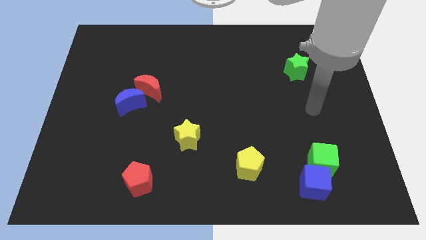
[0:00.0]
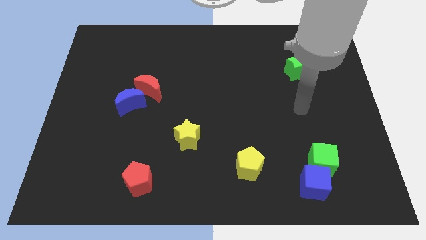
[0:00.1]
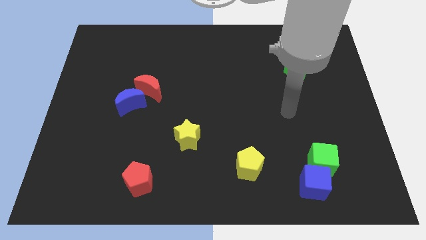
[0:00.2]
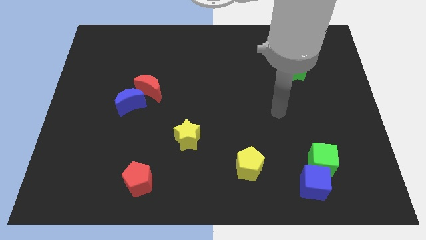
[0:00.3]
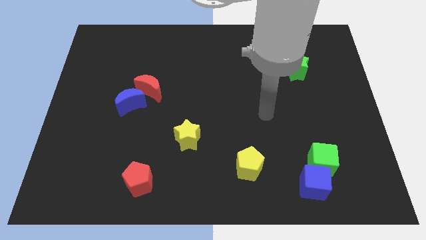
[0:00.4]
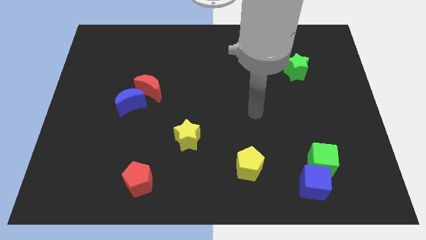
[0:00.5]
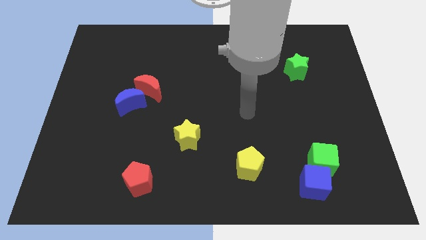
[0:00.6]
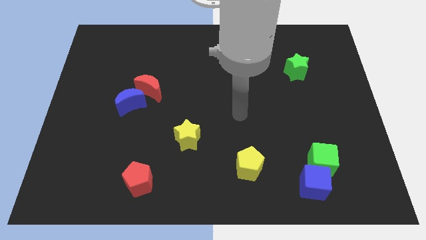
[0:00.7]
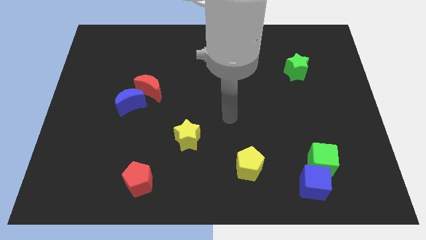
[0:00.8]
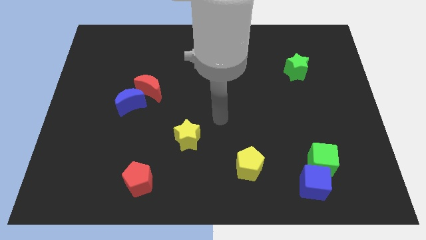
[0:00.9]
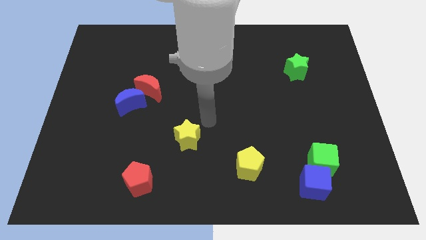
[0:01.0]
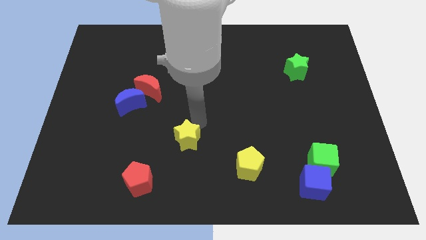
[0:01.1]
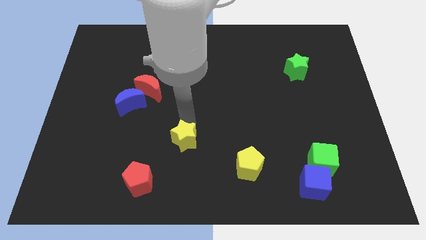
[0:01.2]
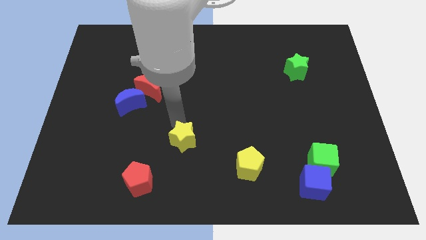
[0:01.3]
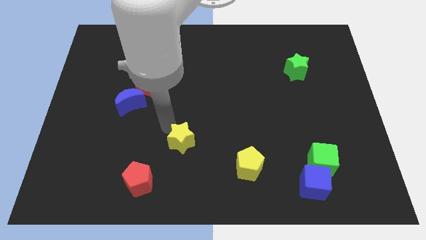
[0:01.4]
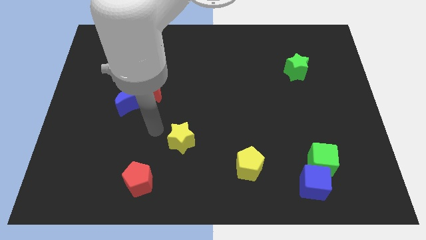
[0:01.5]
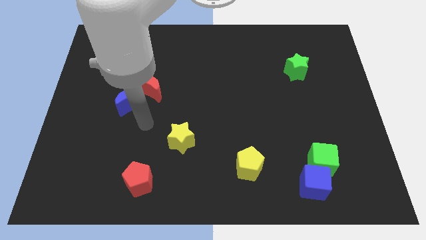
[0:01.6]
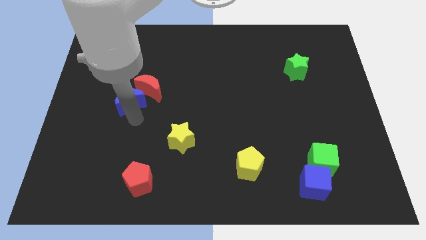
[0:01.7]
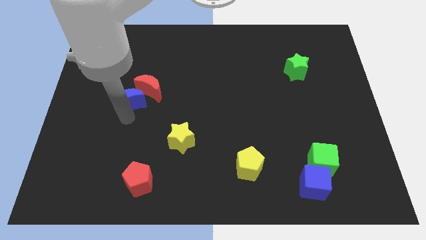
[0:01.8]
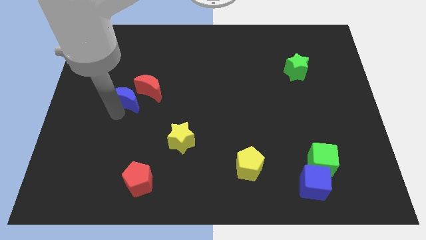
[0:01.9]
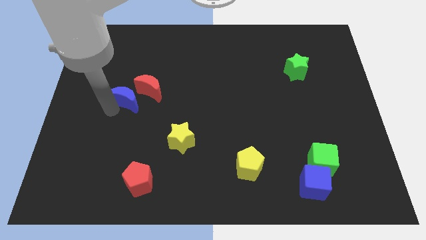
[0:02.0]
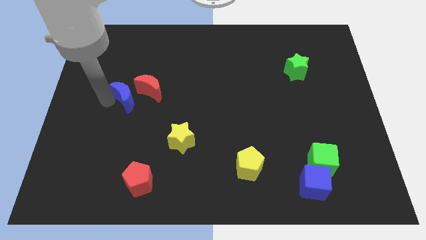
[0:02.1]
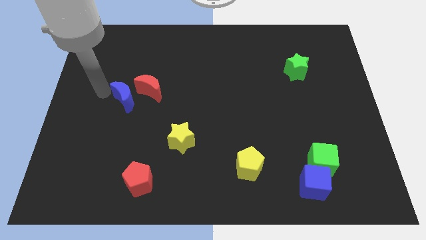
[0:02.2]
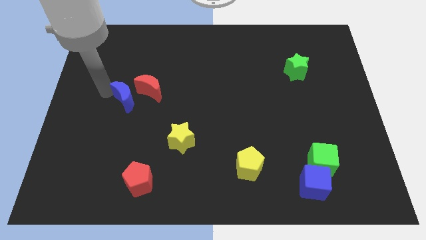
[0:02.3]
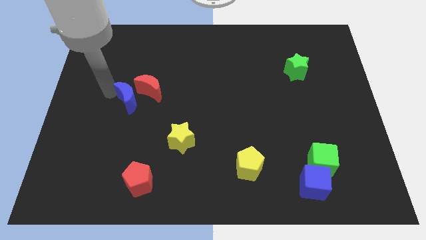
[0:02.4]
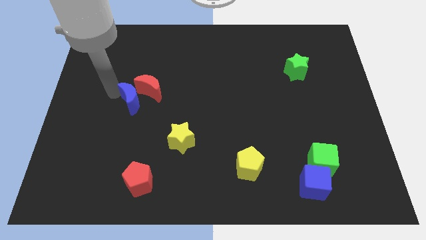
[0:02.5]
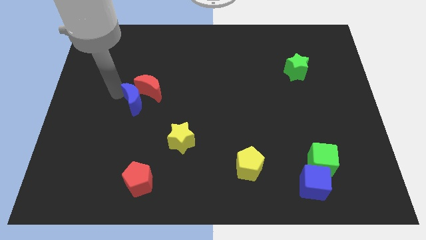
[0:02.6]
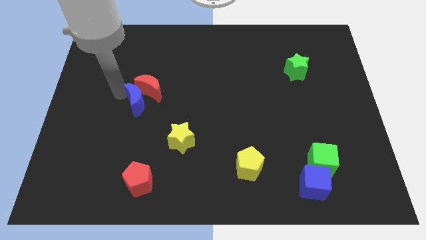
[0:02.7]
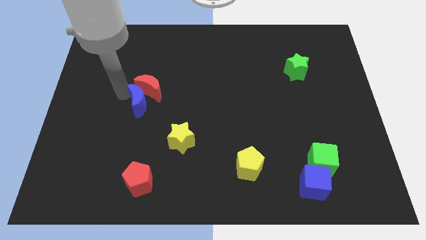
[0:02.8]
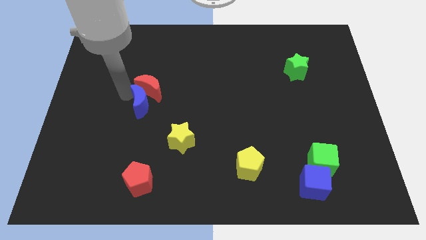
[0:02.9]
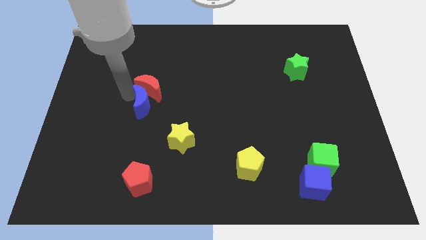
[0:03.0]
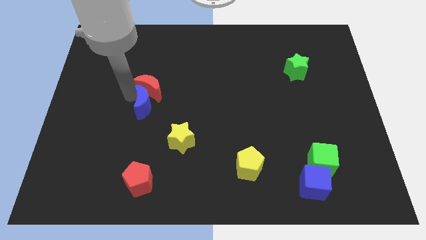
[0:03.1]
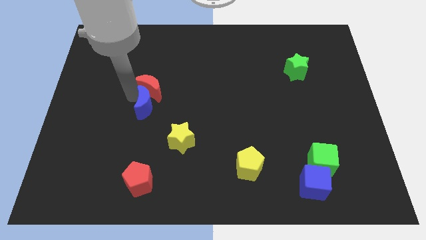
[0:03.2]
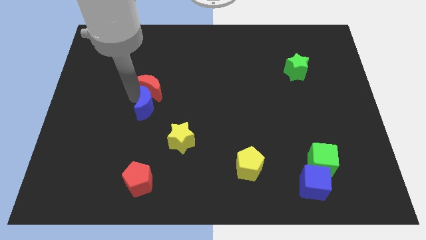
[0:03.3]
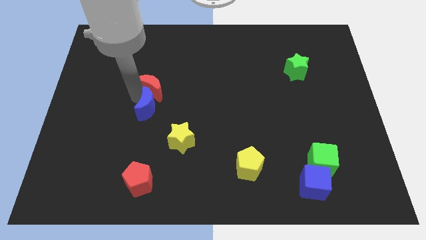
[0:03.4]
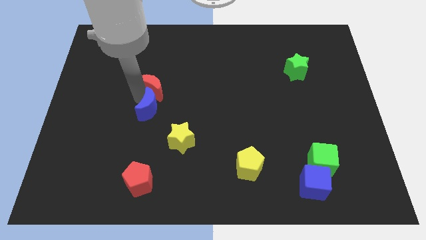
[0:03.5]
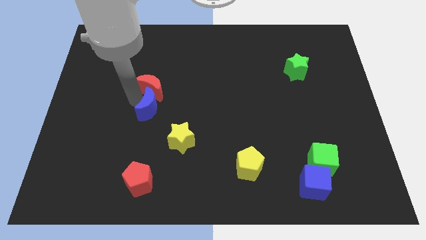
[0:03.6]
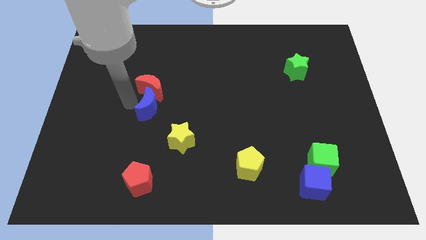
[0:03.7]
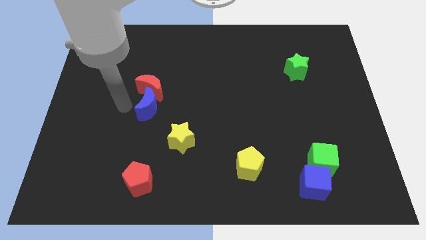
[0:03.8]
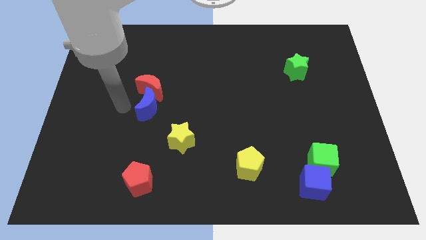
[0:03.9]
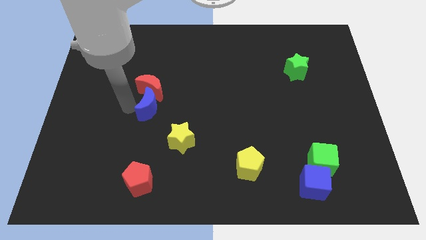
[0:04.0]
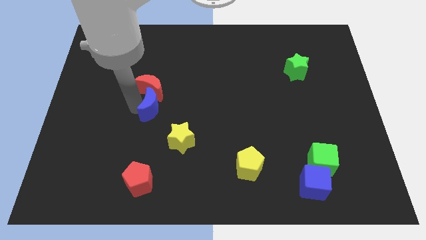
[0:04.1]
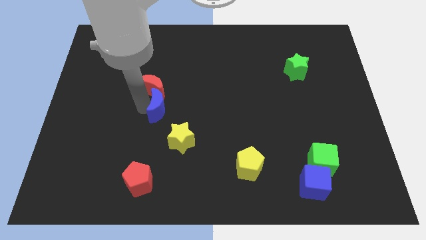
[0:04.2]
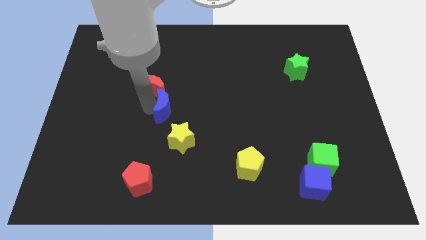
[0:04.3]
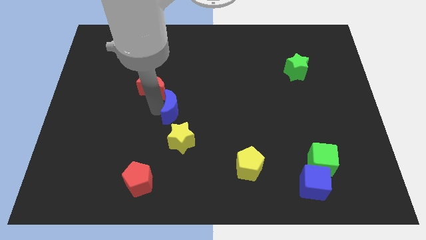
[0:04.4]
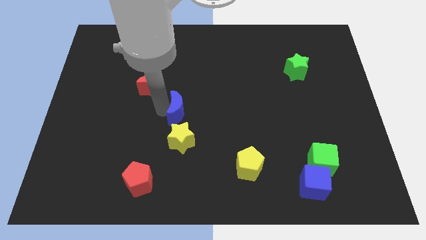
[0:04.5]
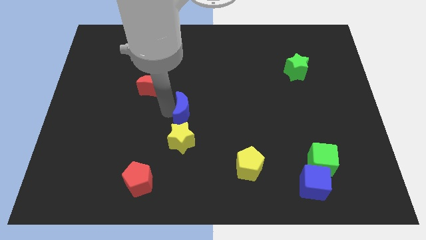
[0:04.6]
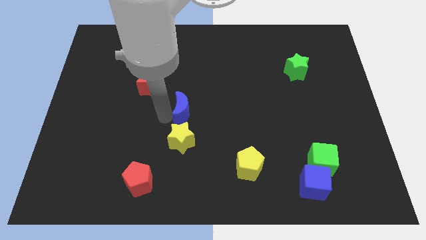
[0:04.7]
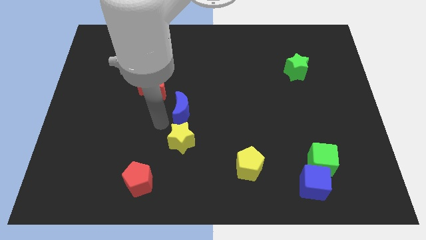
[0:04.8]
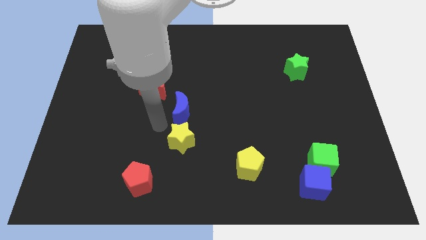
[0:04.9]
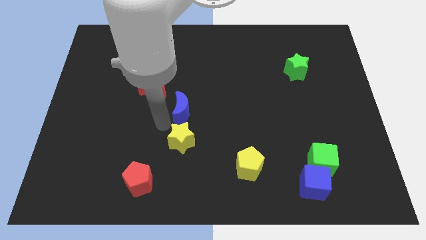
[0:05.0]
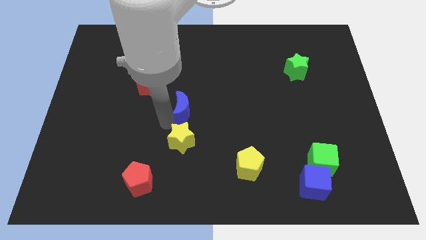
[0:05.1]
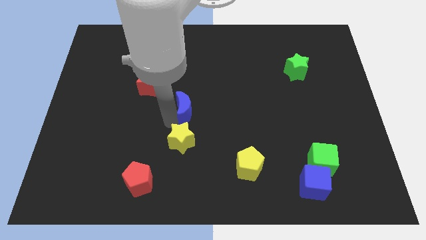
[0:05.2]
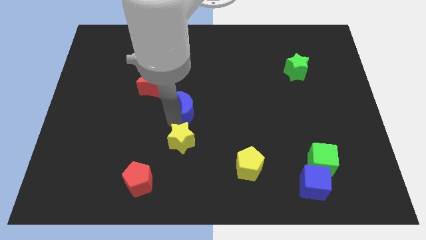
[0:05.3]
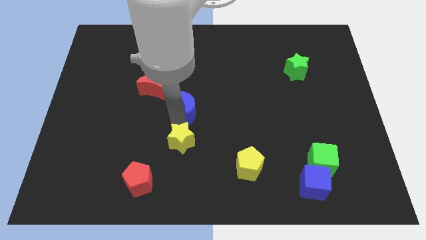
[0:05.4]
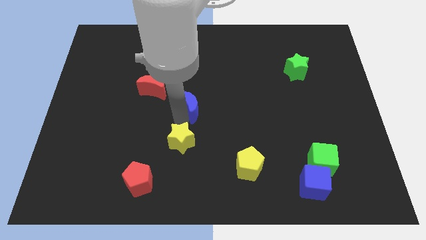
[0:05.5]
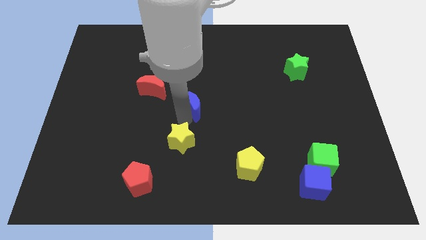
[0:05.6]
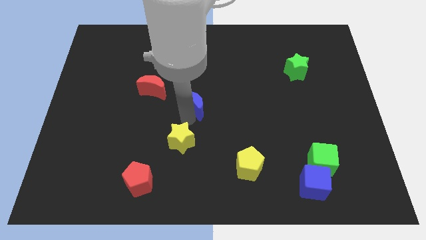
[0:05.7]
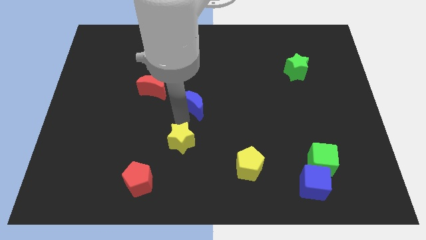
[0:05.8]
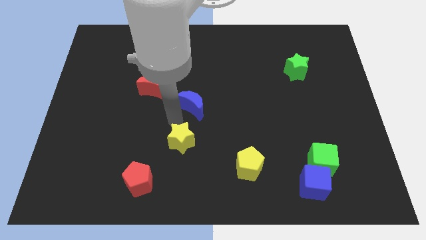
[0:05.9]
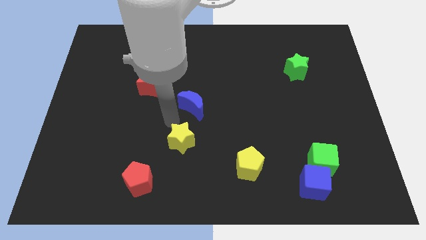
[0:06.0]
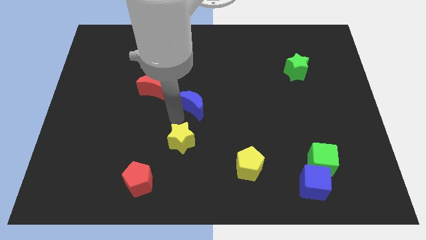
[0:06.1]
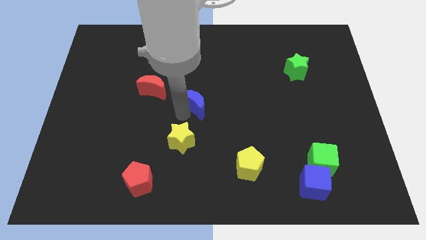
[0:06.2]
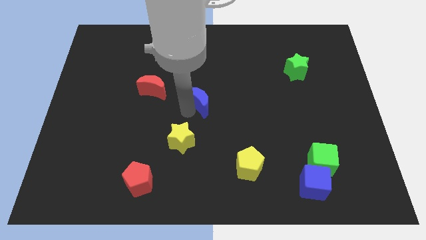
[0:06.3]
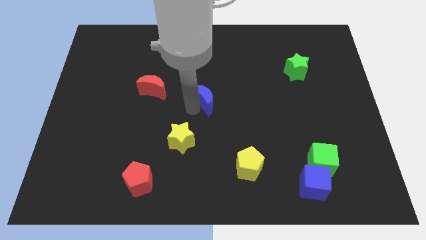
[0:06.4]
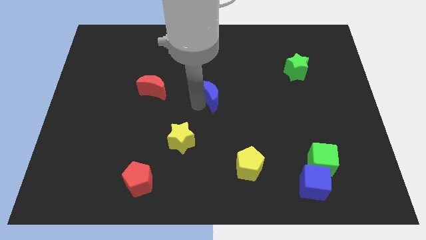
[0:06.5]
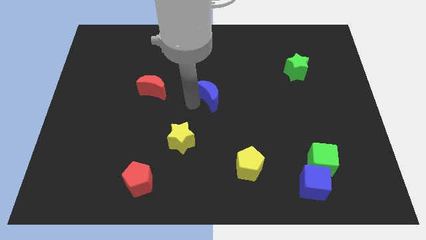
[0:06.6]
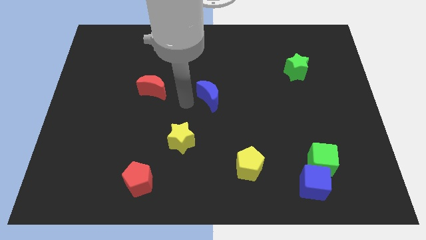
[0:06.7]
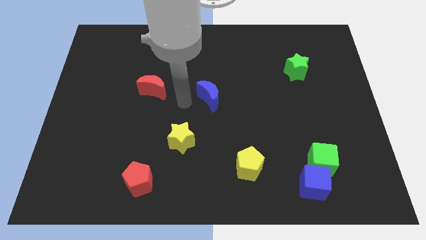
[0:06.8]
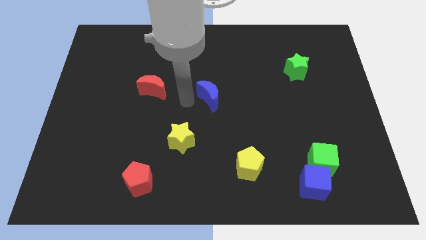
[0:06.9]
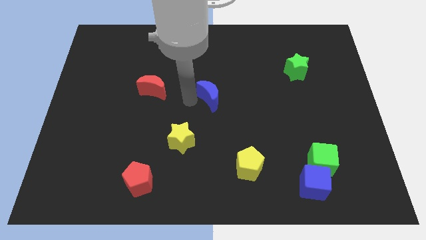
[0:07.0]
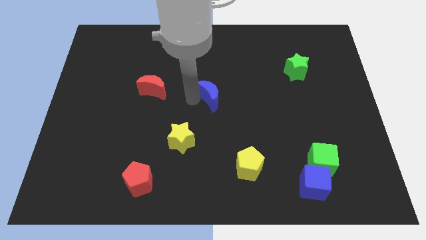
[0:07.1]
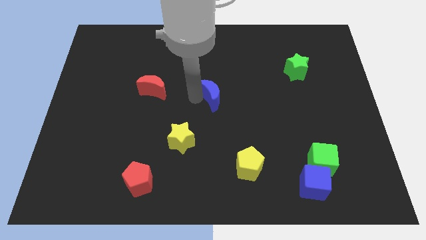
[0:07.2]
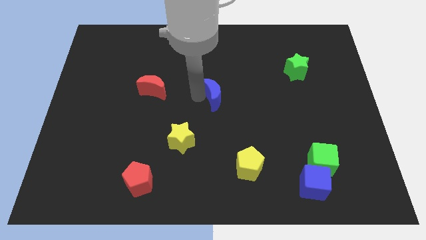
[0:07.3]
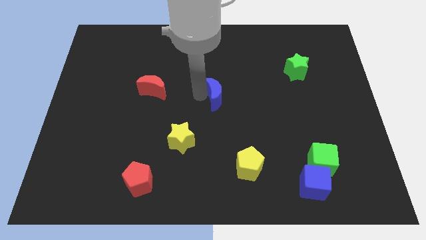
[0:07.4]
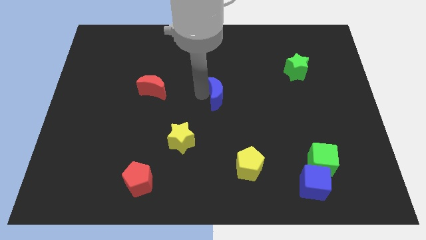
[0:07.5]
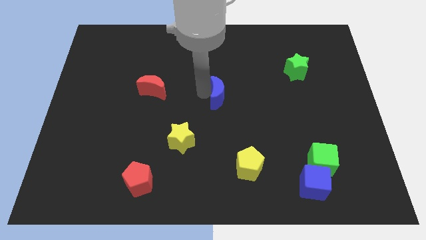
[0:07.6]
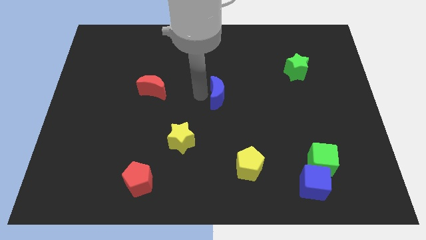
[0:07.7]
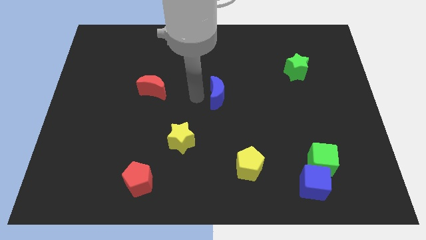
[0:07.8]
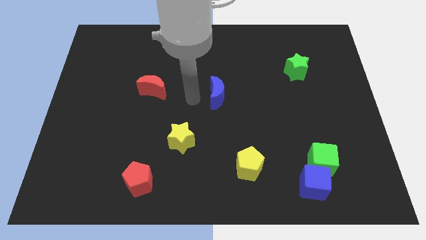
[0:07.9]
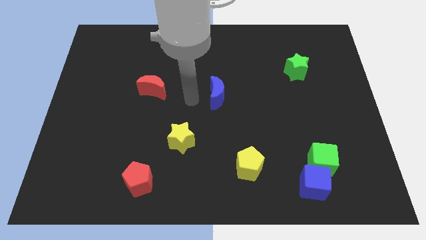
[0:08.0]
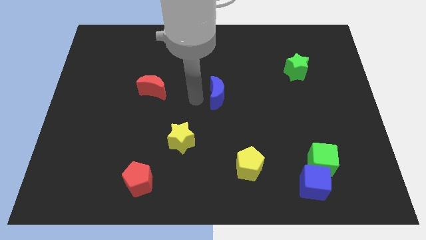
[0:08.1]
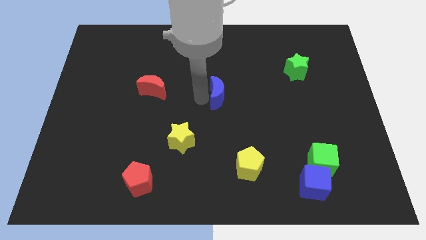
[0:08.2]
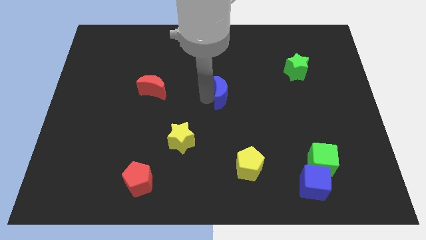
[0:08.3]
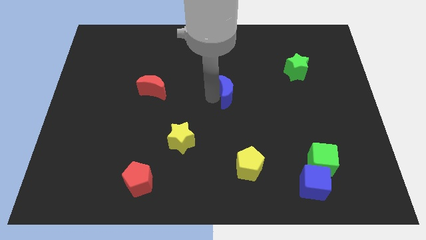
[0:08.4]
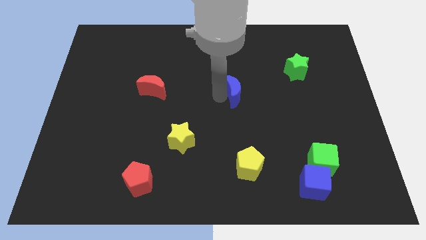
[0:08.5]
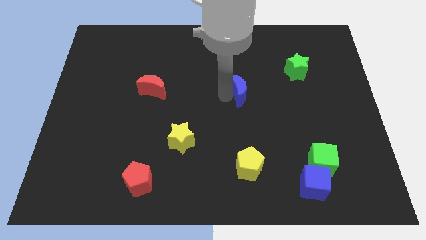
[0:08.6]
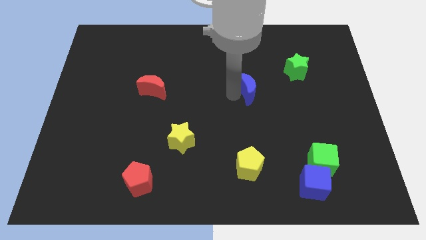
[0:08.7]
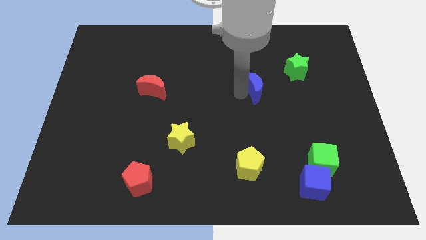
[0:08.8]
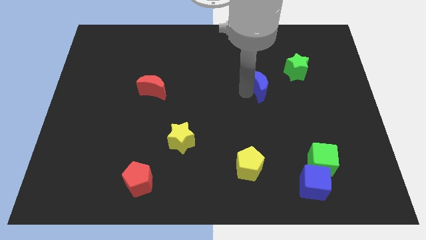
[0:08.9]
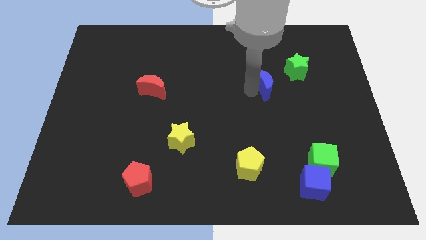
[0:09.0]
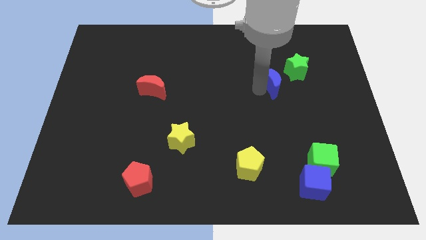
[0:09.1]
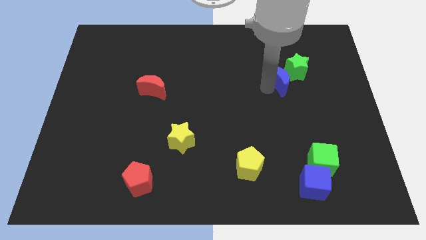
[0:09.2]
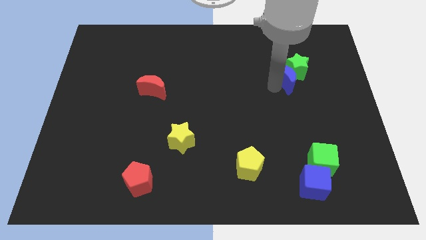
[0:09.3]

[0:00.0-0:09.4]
push the blue moon next to the green star
